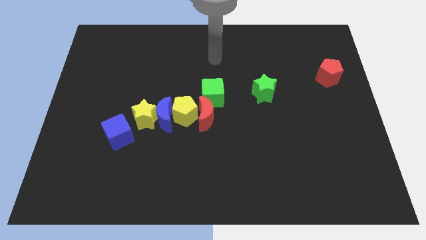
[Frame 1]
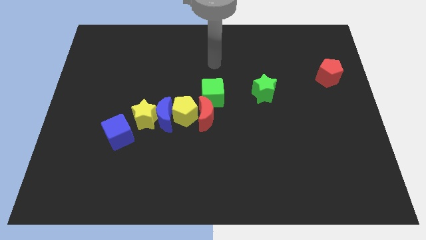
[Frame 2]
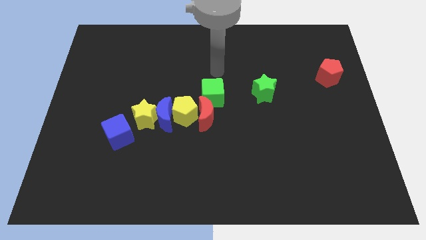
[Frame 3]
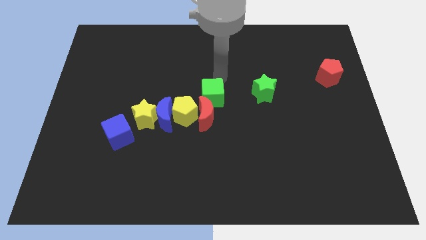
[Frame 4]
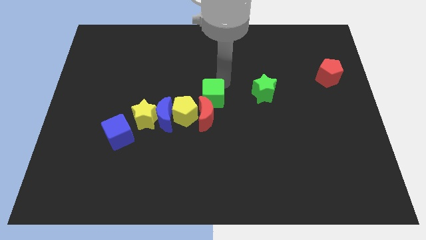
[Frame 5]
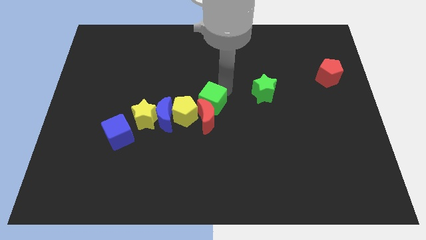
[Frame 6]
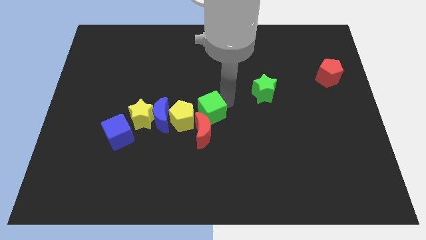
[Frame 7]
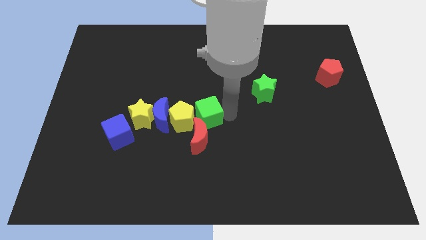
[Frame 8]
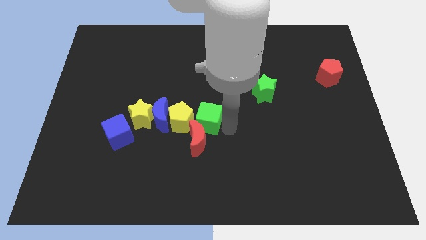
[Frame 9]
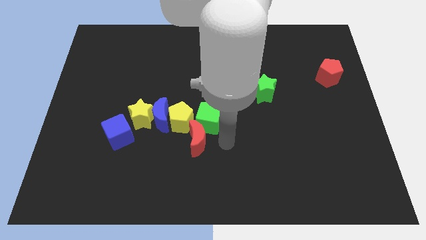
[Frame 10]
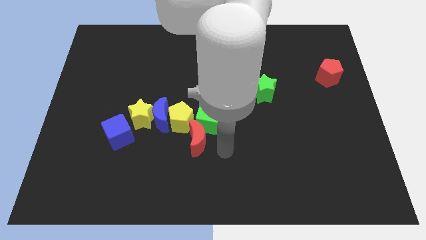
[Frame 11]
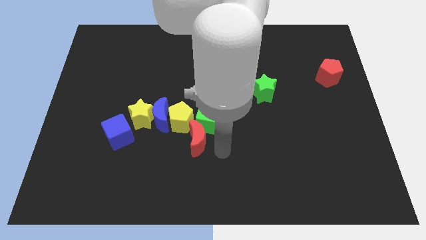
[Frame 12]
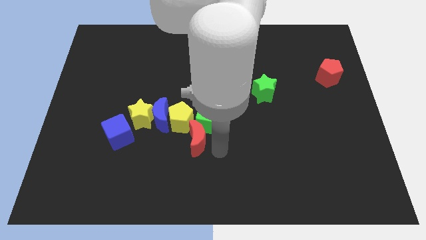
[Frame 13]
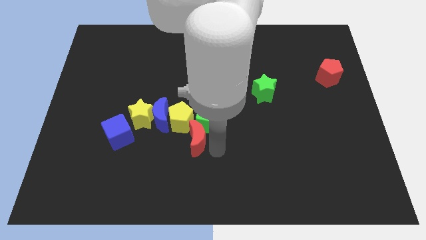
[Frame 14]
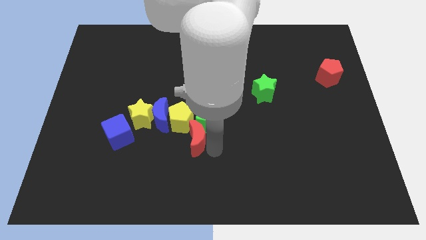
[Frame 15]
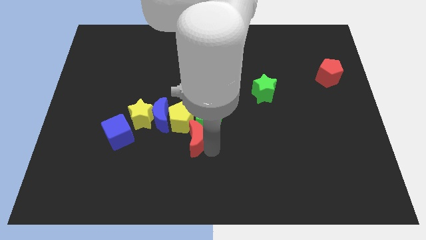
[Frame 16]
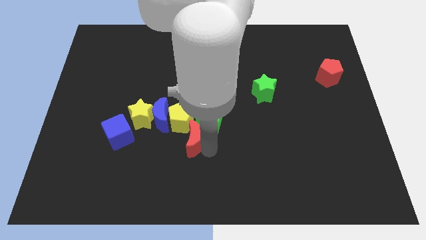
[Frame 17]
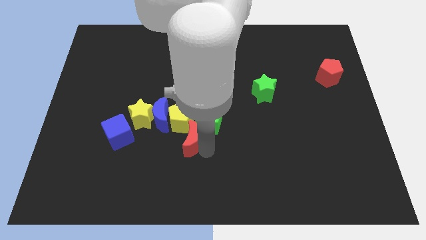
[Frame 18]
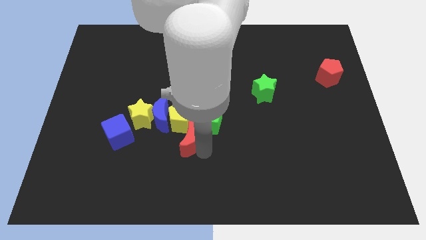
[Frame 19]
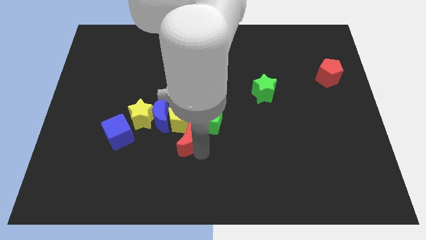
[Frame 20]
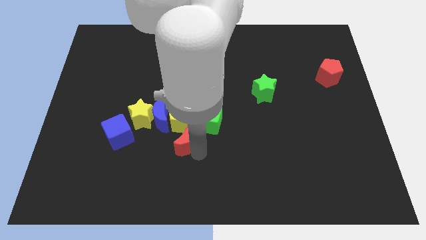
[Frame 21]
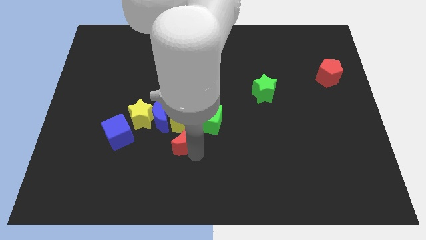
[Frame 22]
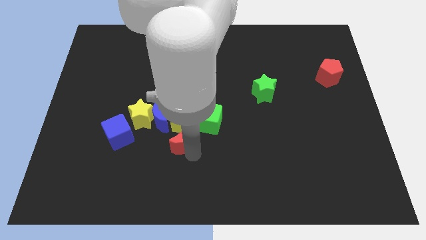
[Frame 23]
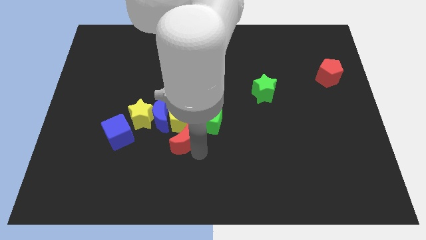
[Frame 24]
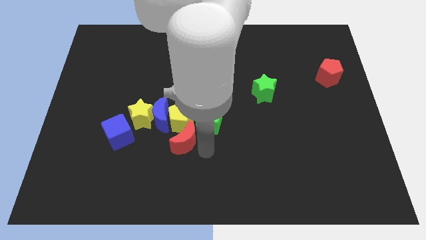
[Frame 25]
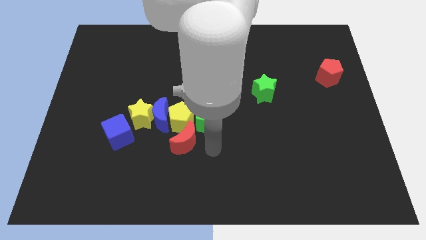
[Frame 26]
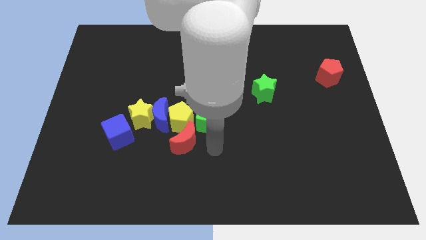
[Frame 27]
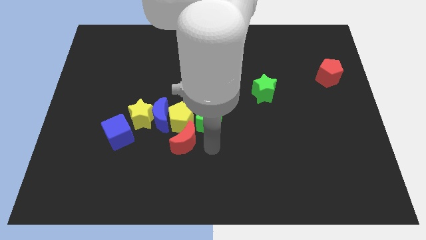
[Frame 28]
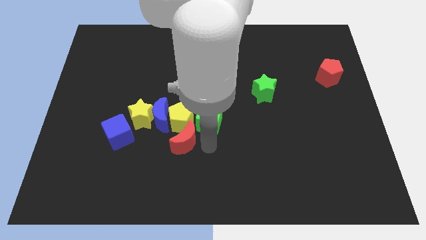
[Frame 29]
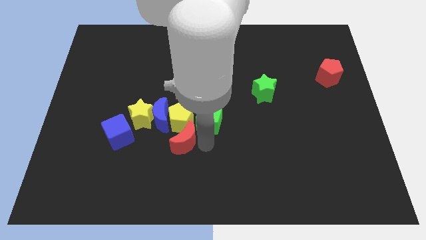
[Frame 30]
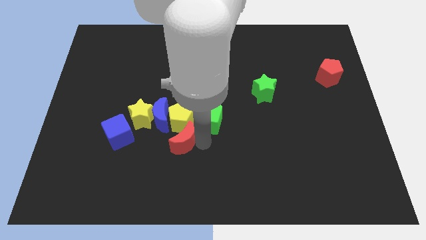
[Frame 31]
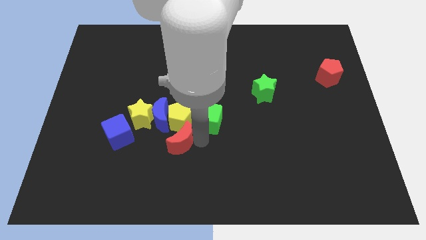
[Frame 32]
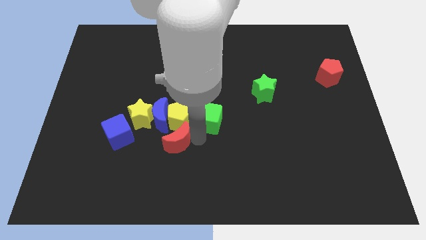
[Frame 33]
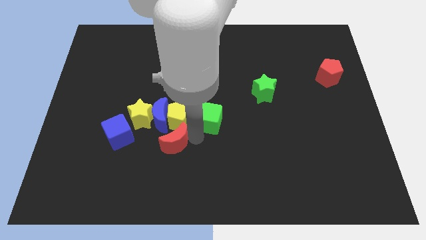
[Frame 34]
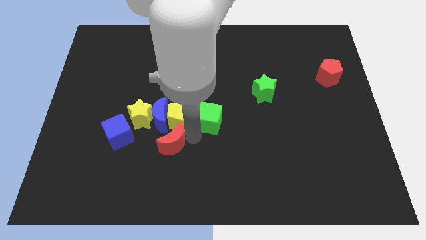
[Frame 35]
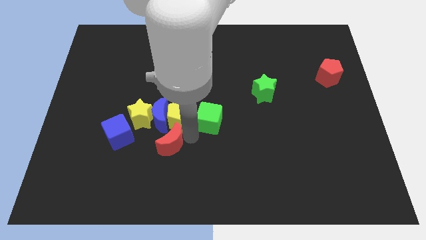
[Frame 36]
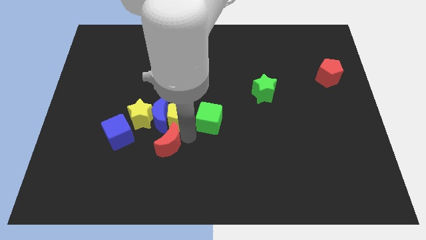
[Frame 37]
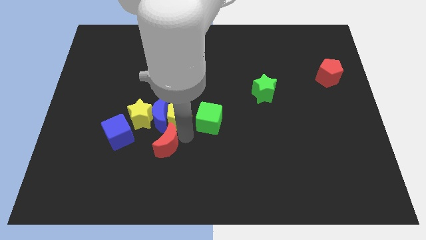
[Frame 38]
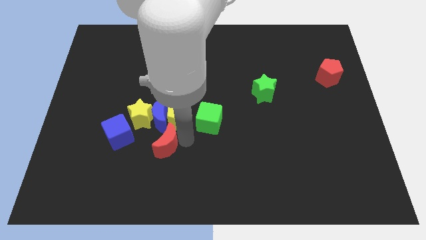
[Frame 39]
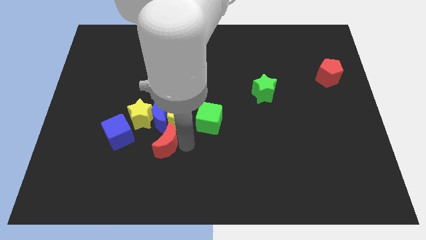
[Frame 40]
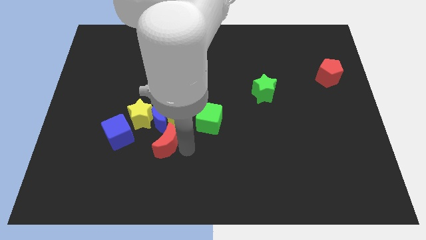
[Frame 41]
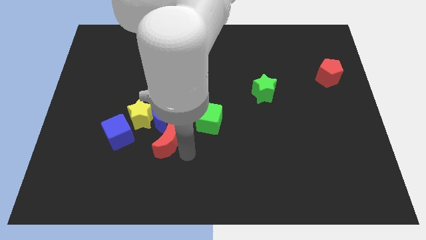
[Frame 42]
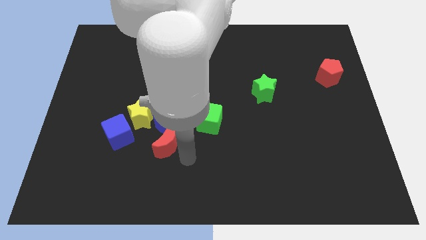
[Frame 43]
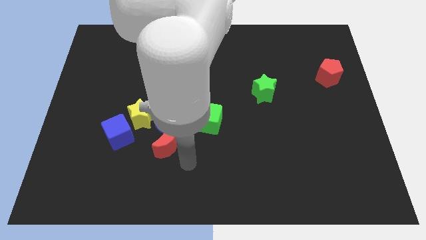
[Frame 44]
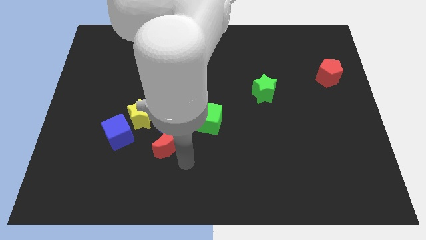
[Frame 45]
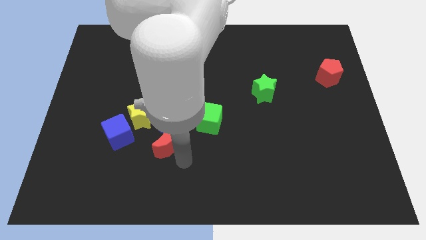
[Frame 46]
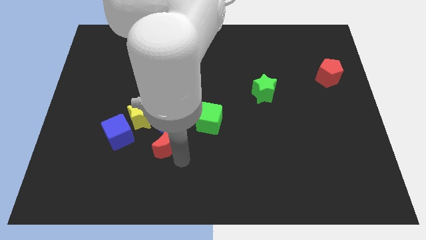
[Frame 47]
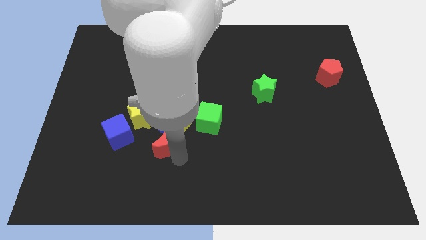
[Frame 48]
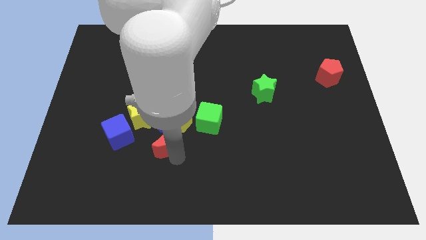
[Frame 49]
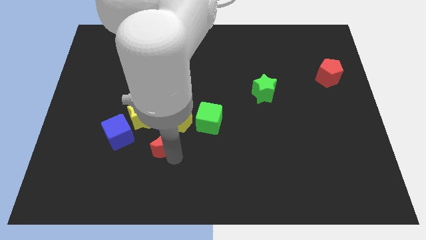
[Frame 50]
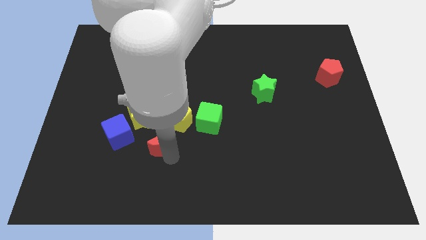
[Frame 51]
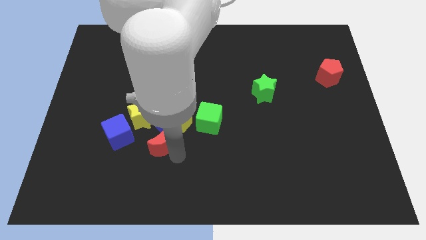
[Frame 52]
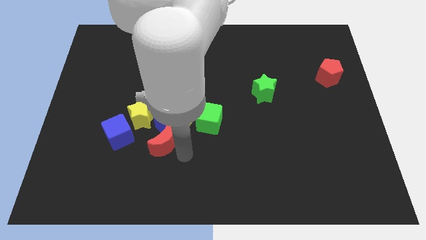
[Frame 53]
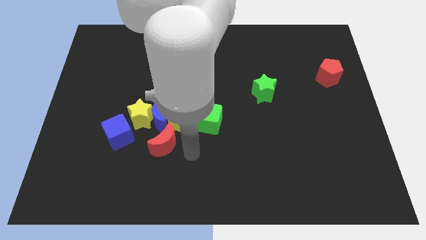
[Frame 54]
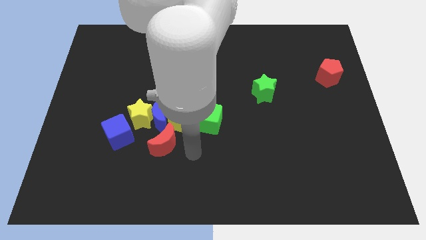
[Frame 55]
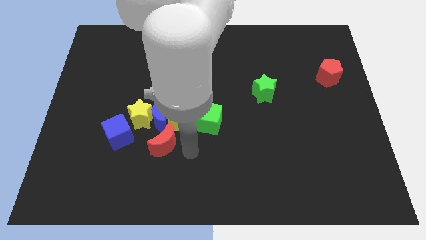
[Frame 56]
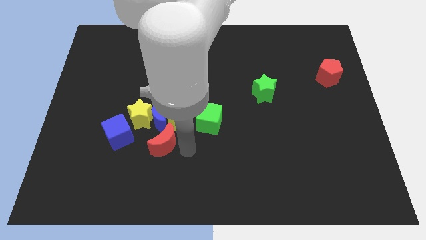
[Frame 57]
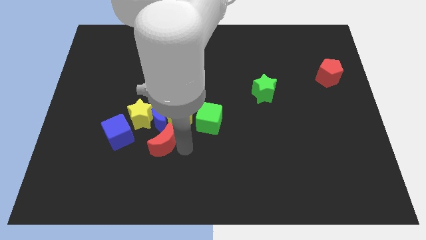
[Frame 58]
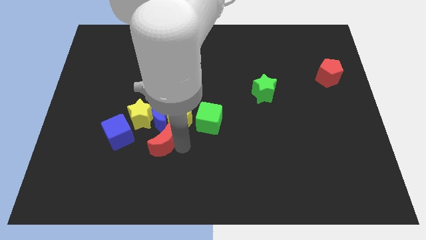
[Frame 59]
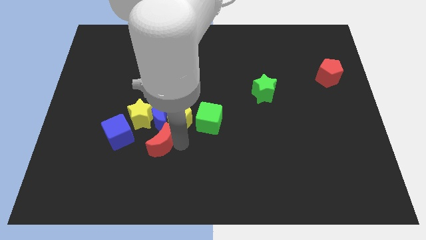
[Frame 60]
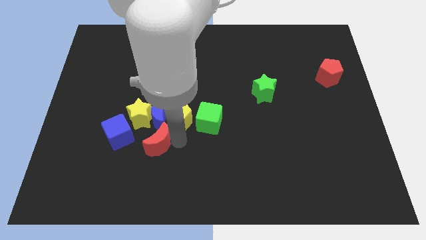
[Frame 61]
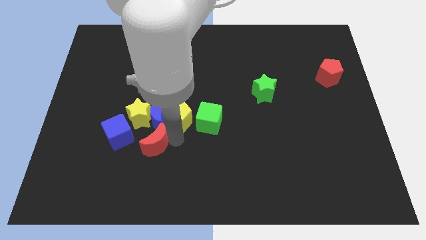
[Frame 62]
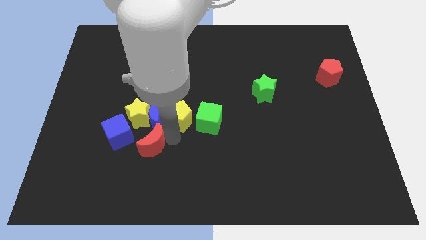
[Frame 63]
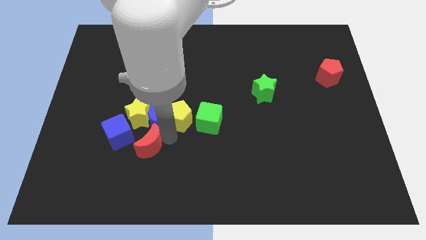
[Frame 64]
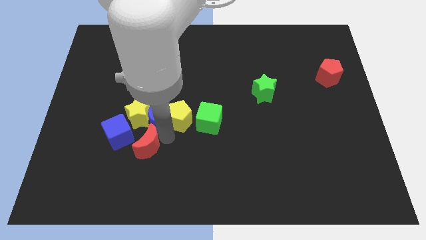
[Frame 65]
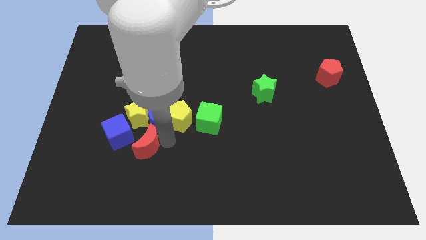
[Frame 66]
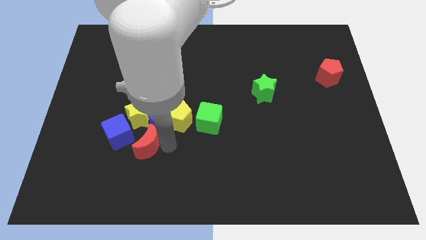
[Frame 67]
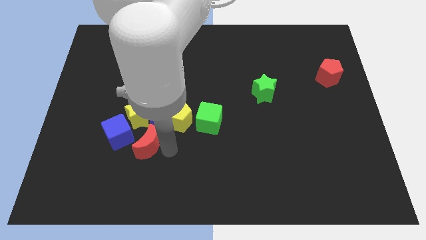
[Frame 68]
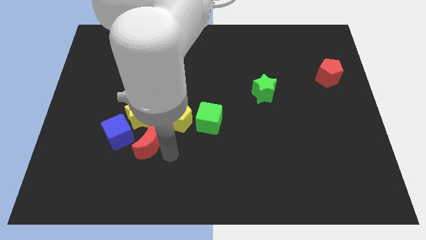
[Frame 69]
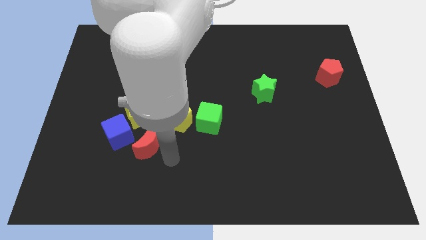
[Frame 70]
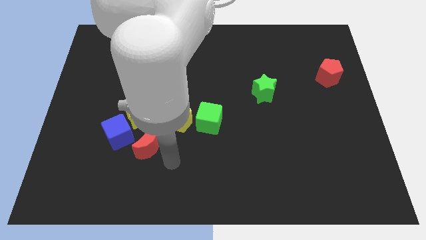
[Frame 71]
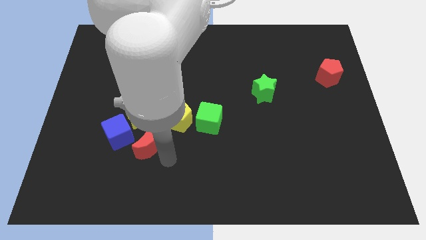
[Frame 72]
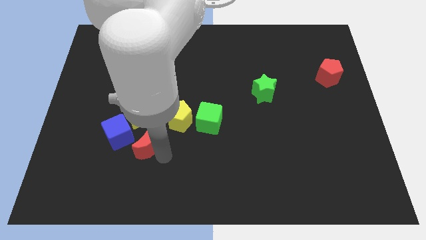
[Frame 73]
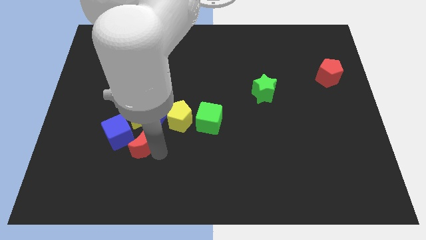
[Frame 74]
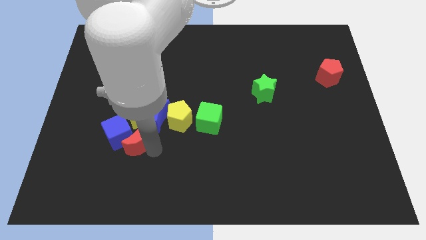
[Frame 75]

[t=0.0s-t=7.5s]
put the red moon close to the blue cube

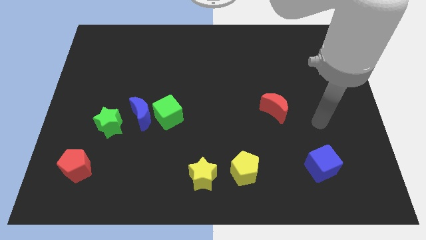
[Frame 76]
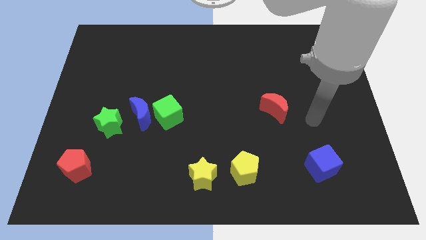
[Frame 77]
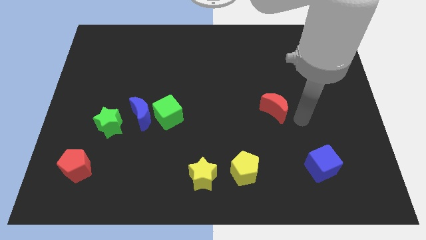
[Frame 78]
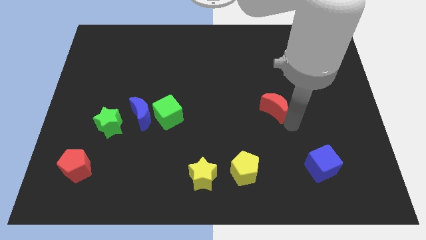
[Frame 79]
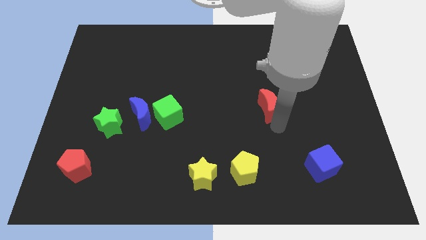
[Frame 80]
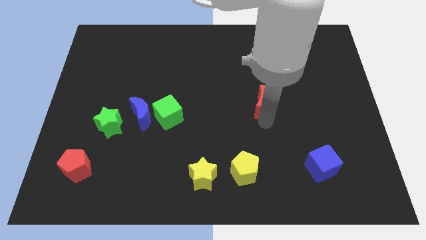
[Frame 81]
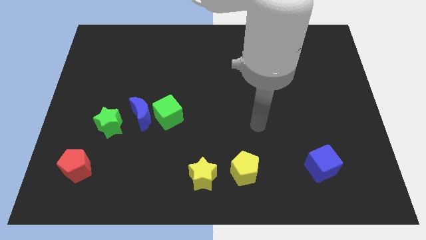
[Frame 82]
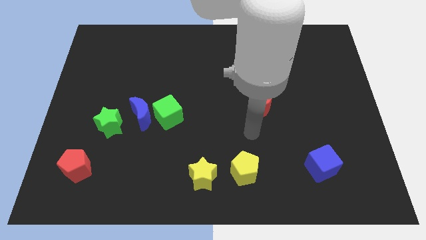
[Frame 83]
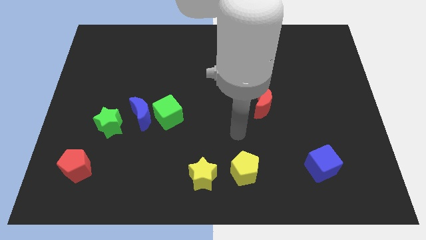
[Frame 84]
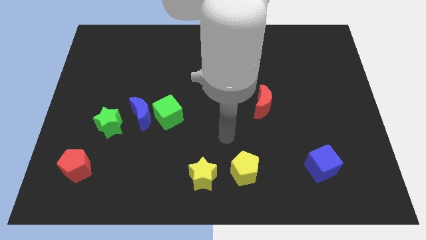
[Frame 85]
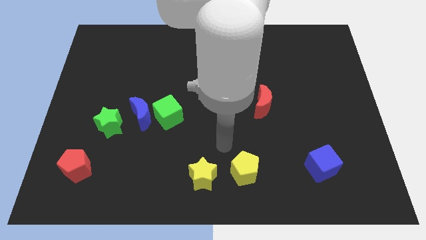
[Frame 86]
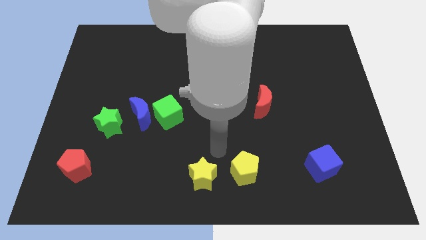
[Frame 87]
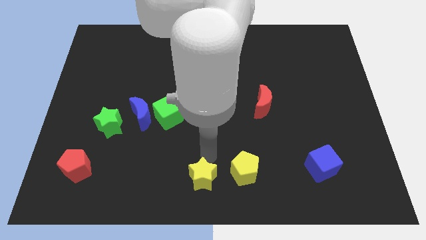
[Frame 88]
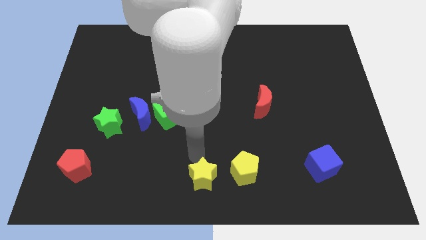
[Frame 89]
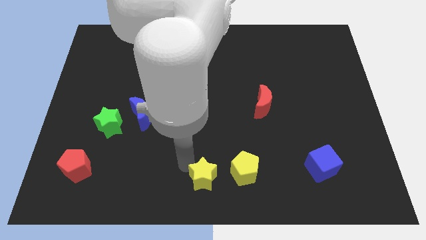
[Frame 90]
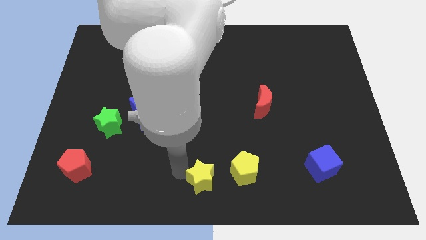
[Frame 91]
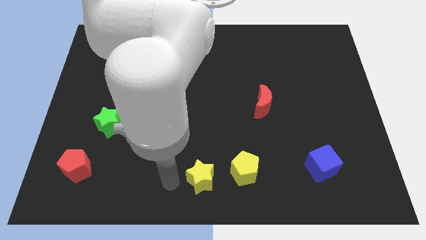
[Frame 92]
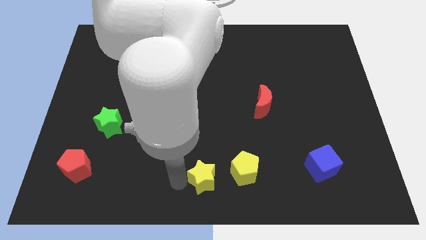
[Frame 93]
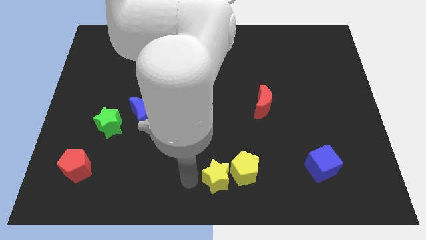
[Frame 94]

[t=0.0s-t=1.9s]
move the yellow star to the yellow pentagon
